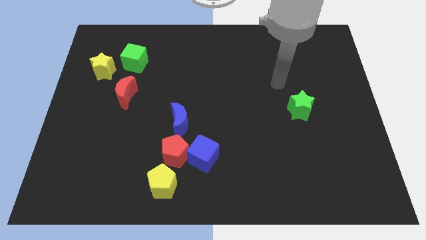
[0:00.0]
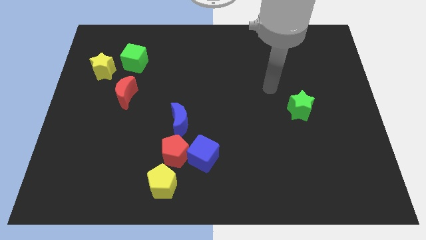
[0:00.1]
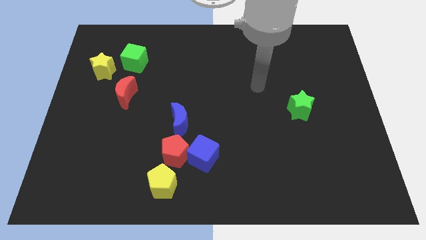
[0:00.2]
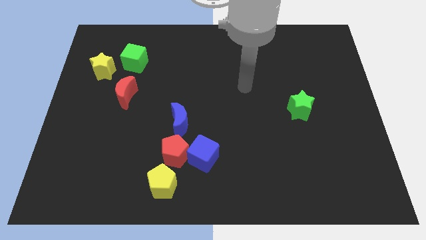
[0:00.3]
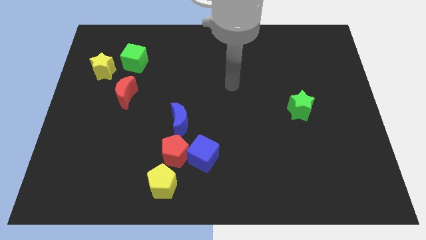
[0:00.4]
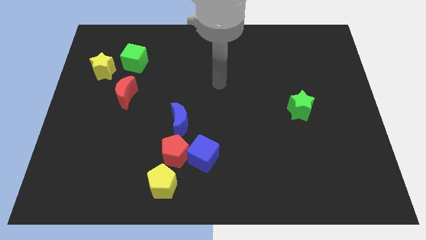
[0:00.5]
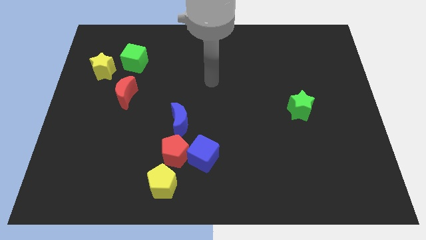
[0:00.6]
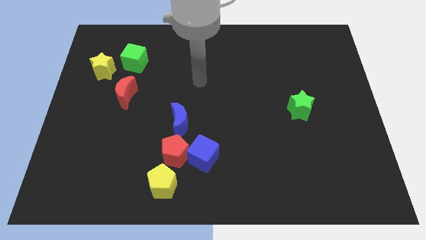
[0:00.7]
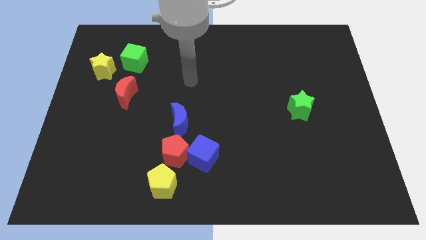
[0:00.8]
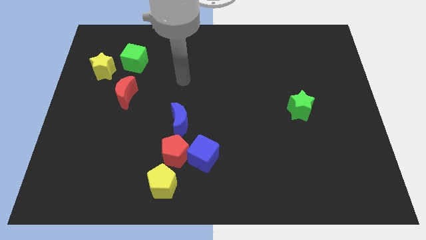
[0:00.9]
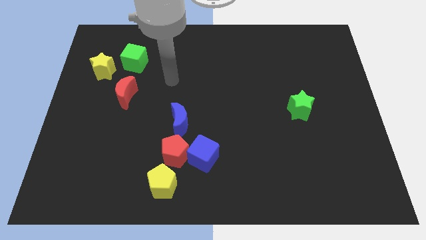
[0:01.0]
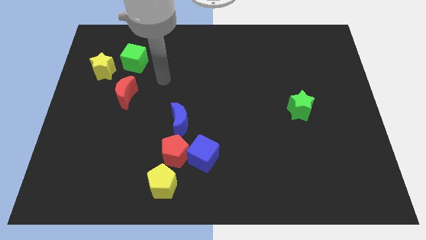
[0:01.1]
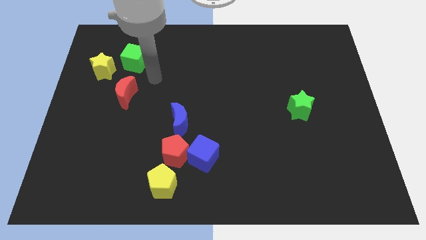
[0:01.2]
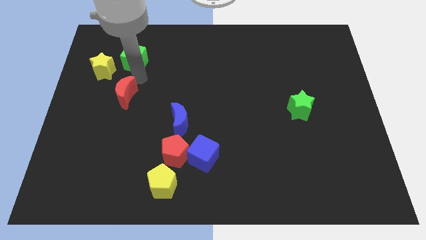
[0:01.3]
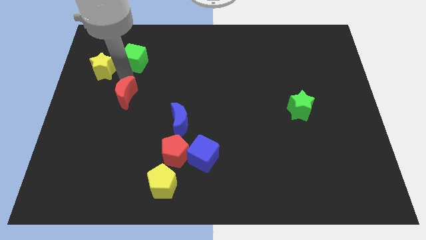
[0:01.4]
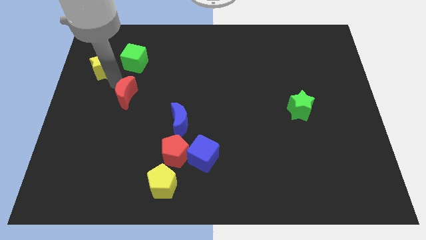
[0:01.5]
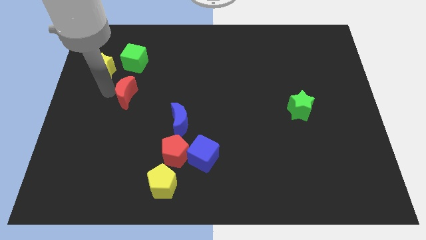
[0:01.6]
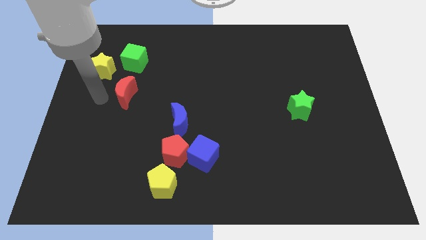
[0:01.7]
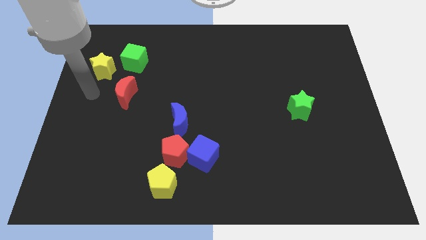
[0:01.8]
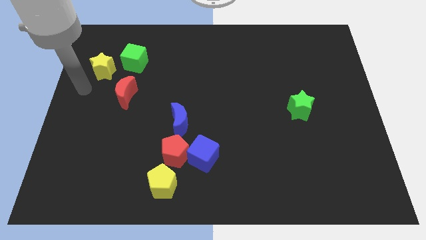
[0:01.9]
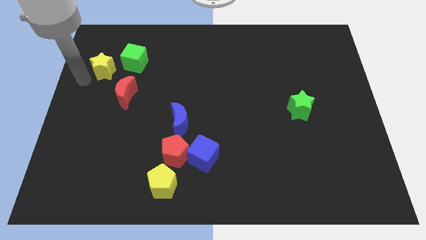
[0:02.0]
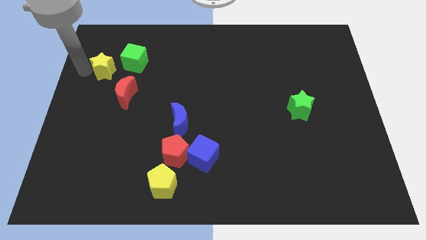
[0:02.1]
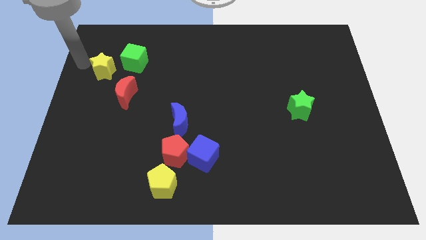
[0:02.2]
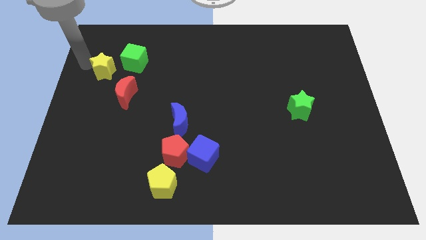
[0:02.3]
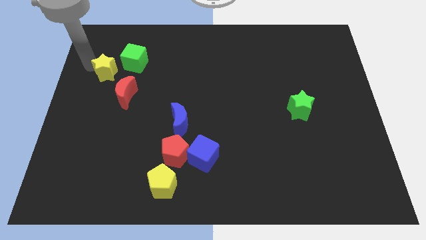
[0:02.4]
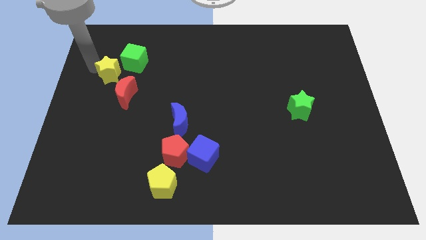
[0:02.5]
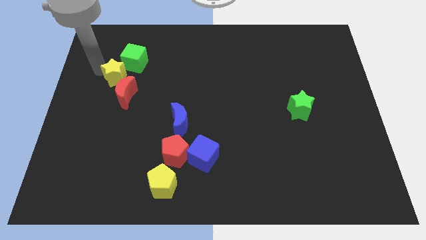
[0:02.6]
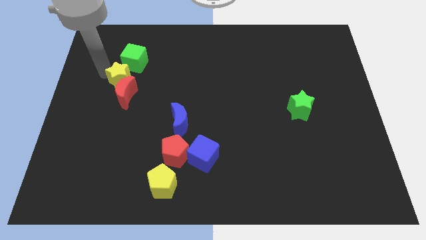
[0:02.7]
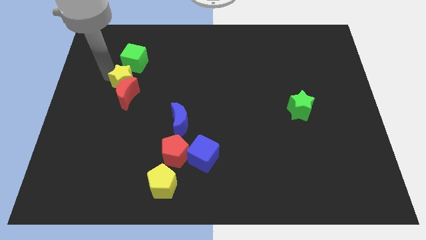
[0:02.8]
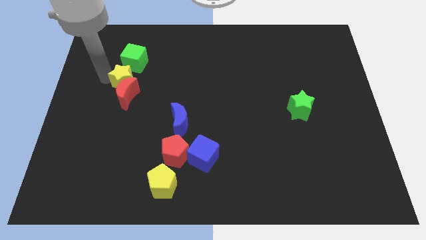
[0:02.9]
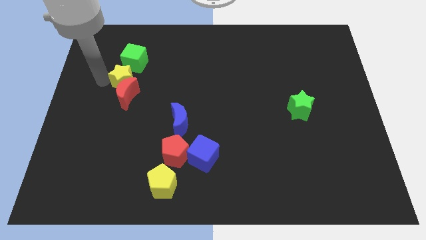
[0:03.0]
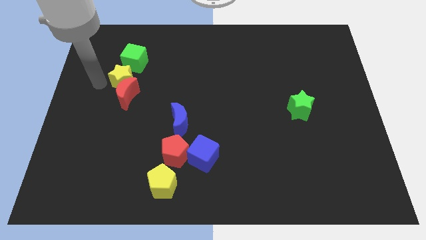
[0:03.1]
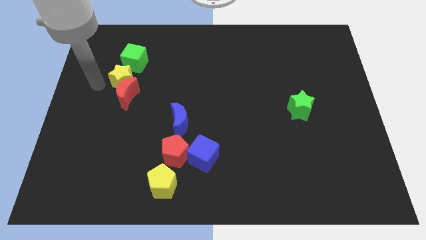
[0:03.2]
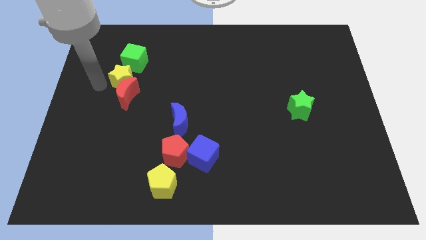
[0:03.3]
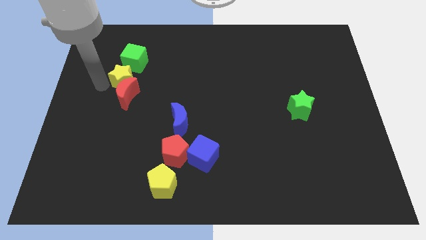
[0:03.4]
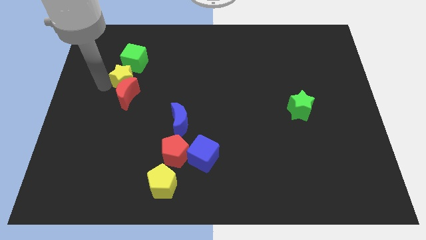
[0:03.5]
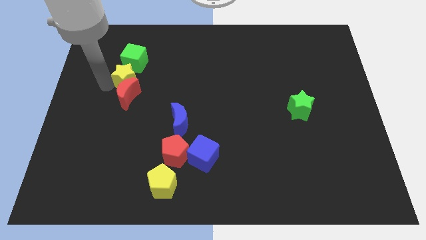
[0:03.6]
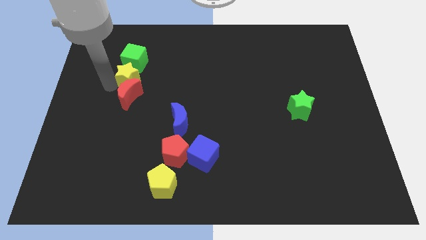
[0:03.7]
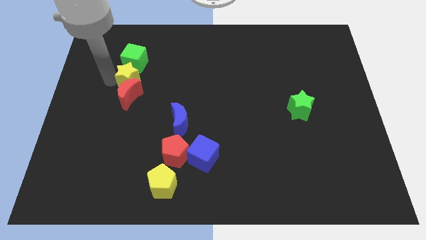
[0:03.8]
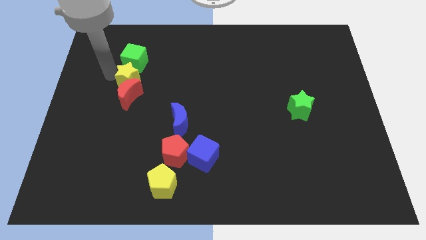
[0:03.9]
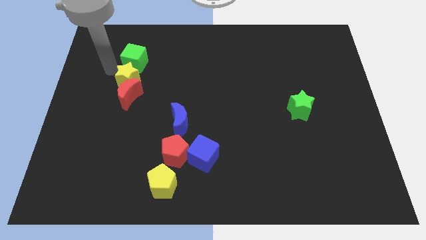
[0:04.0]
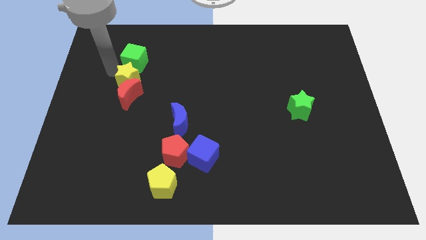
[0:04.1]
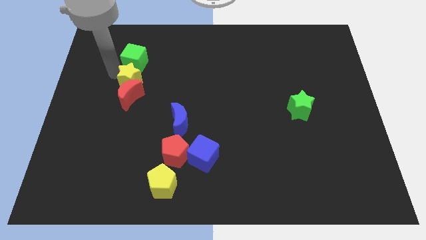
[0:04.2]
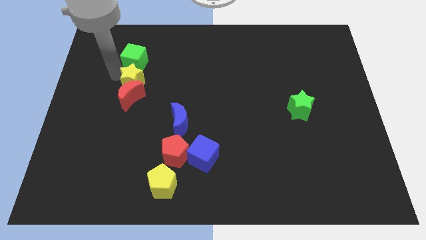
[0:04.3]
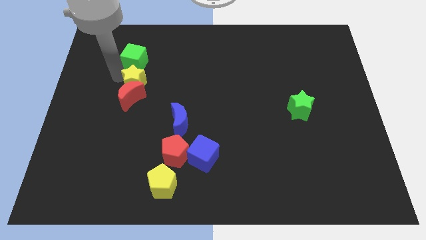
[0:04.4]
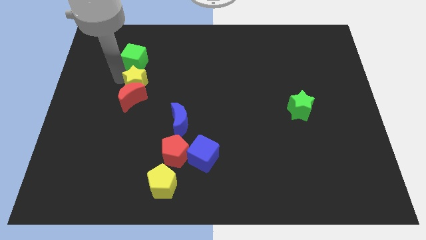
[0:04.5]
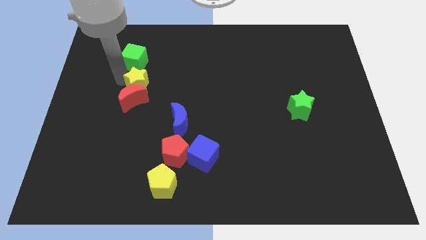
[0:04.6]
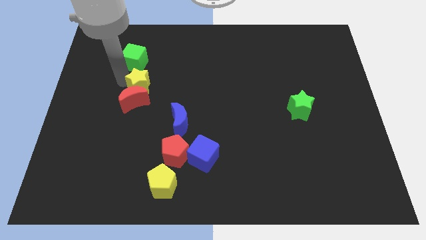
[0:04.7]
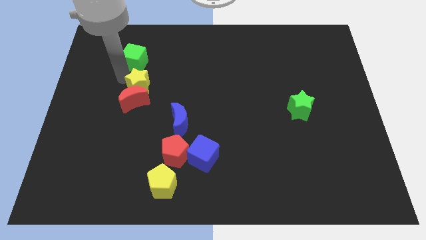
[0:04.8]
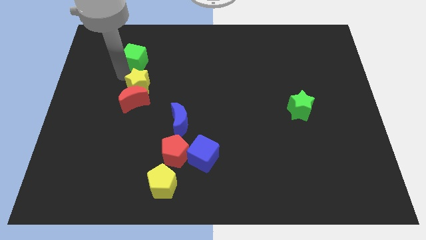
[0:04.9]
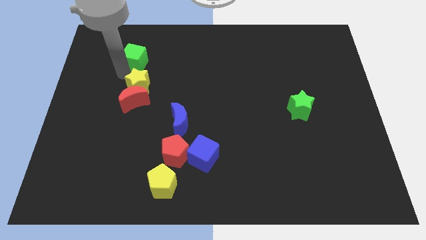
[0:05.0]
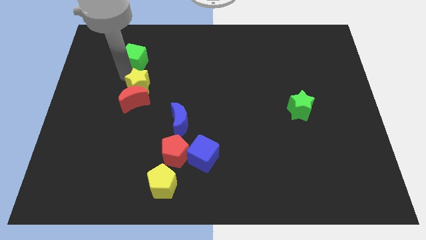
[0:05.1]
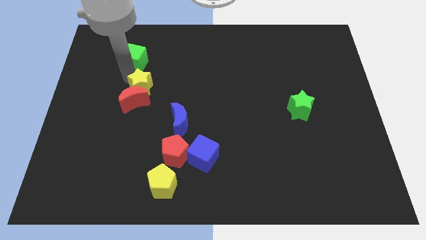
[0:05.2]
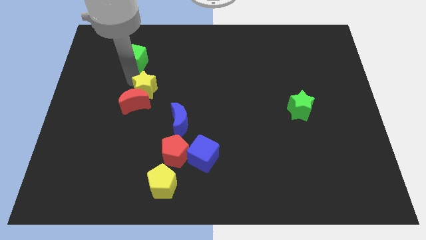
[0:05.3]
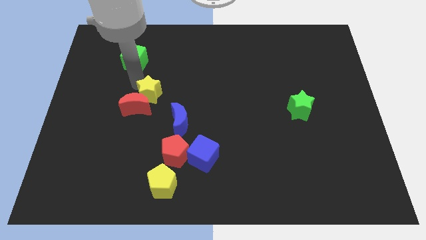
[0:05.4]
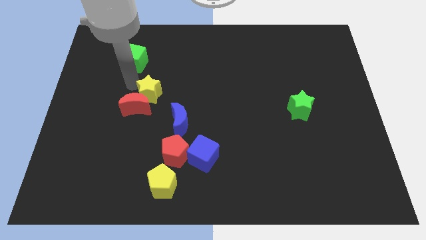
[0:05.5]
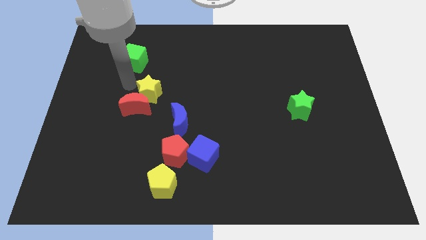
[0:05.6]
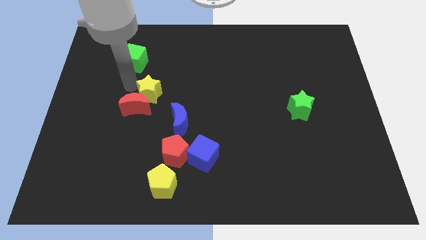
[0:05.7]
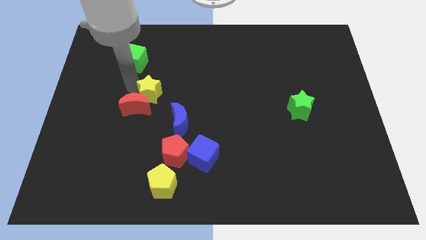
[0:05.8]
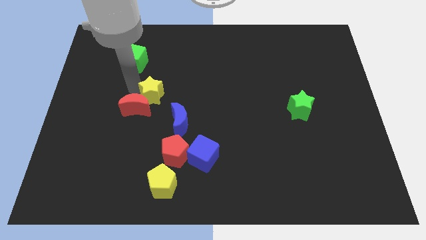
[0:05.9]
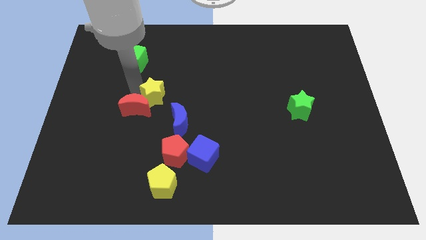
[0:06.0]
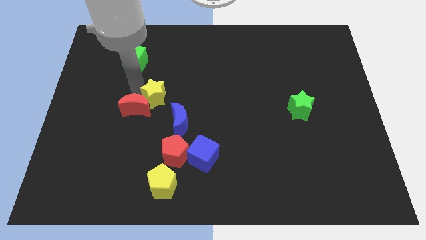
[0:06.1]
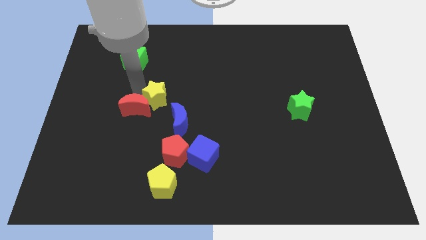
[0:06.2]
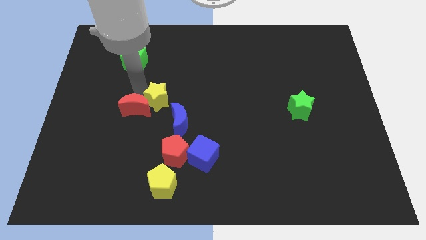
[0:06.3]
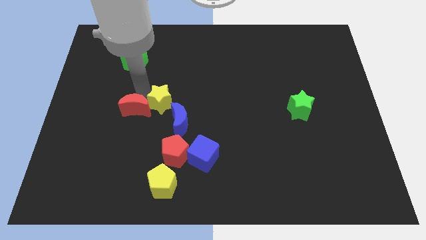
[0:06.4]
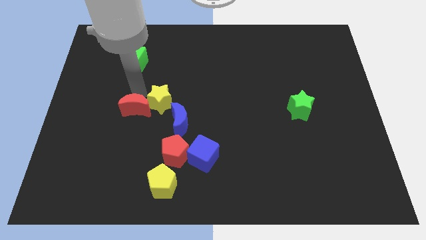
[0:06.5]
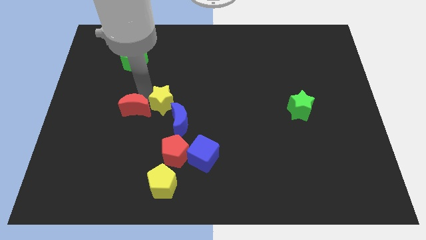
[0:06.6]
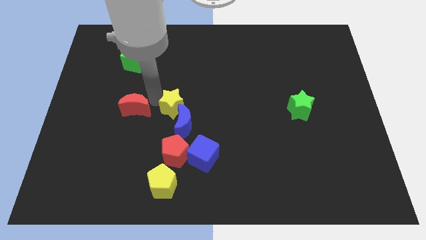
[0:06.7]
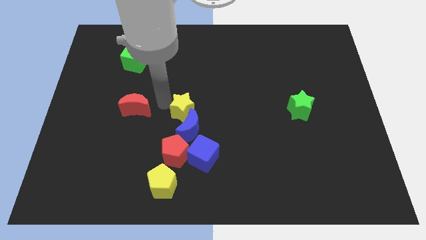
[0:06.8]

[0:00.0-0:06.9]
move the yellow star above the blue cube
